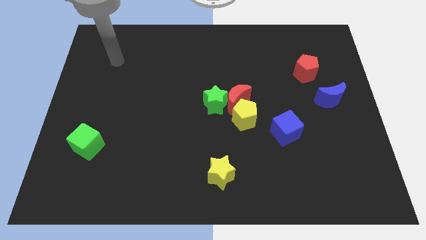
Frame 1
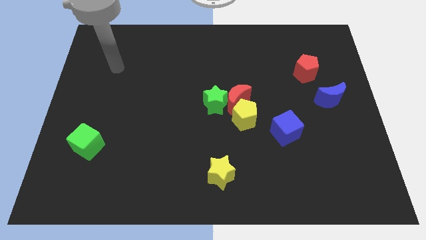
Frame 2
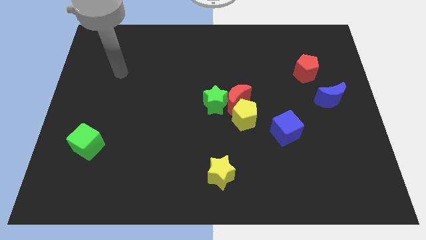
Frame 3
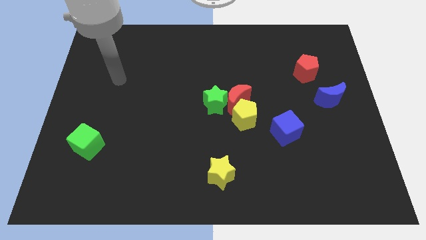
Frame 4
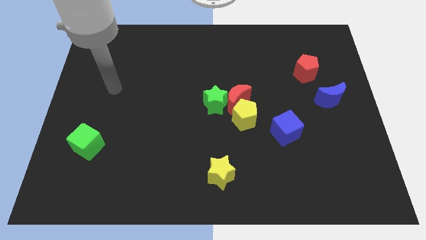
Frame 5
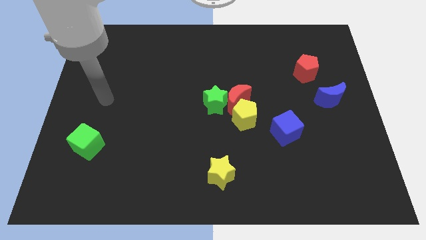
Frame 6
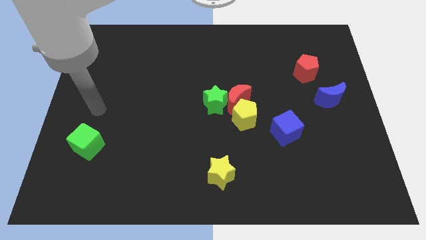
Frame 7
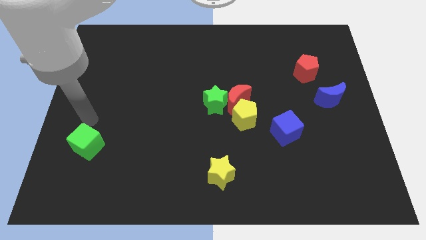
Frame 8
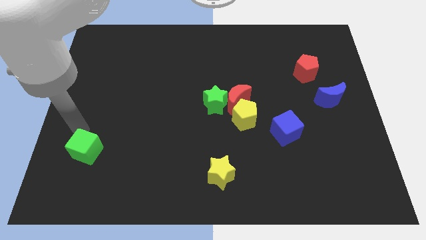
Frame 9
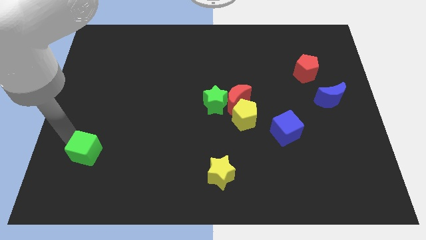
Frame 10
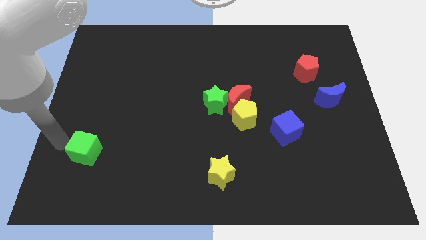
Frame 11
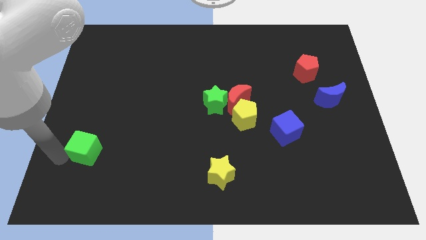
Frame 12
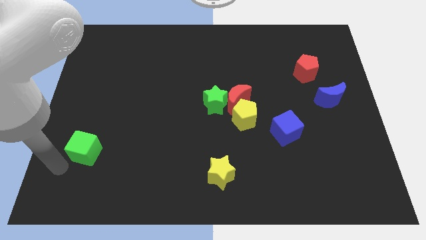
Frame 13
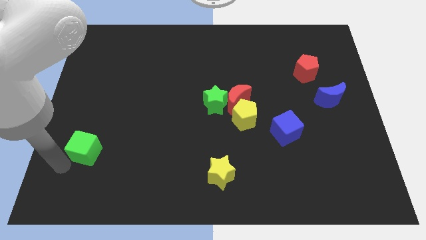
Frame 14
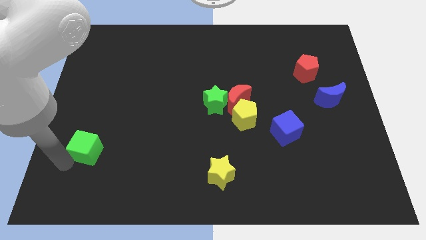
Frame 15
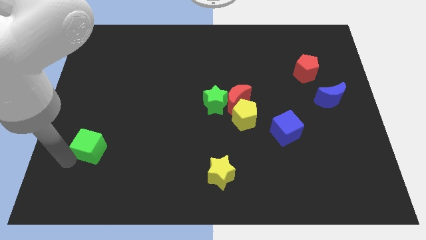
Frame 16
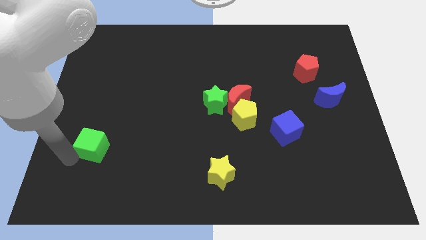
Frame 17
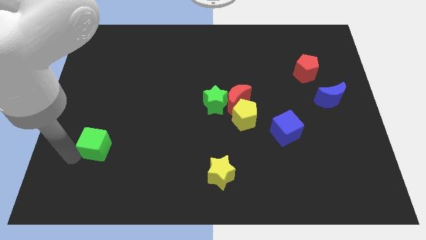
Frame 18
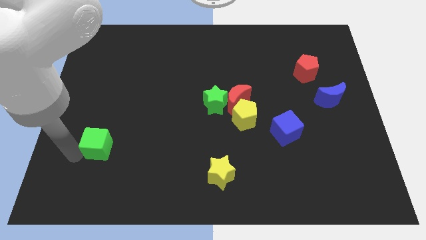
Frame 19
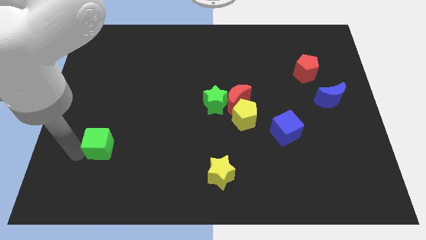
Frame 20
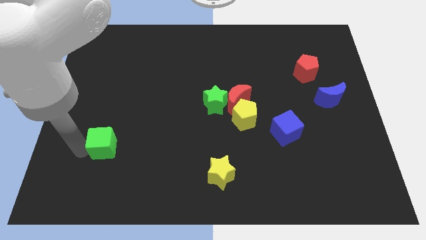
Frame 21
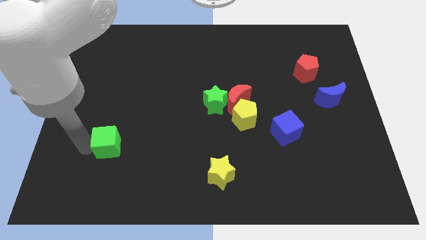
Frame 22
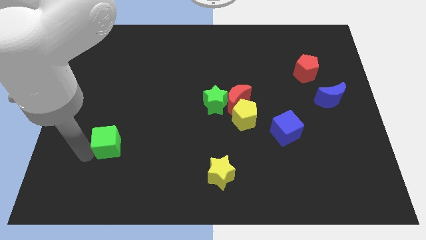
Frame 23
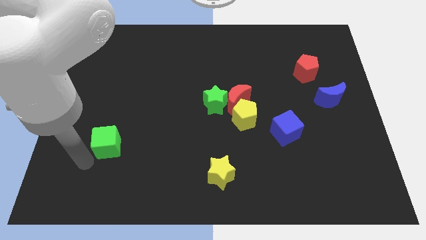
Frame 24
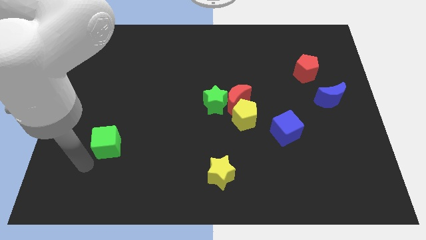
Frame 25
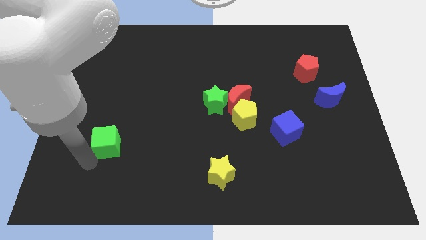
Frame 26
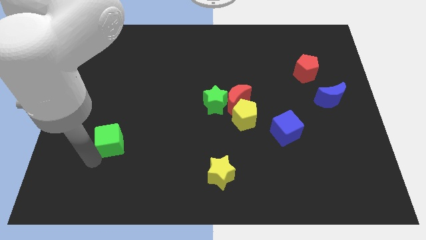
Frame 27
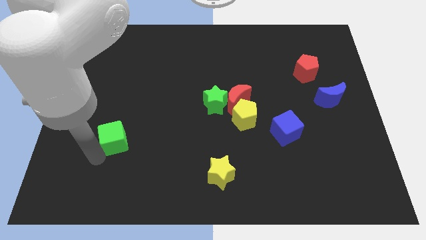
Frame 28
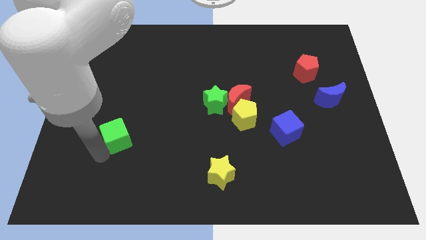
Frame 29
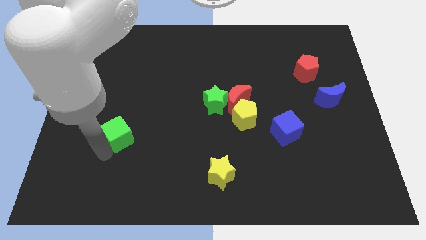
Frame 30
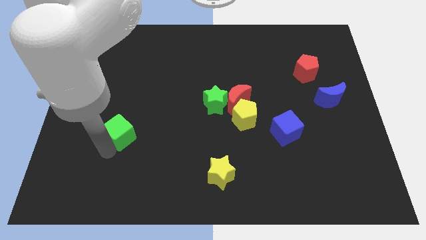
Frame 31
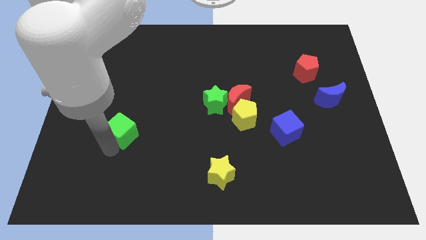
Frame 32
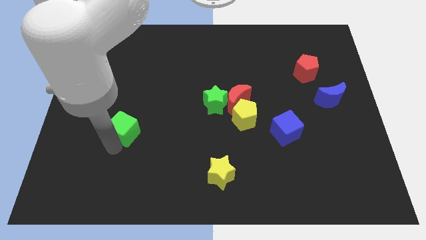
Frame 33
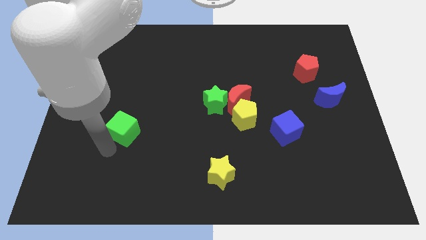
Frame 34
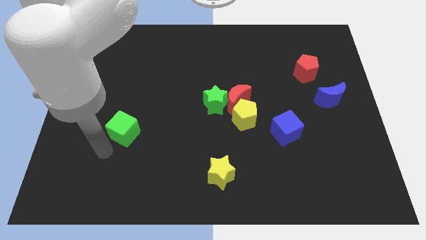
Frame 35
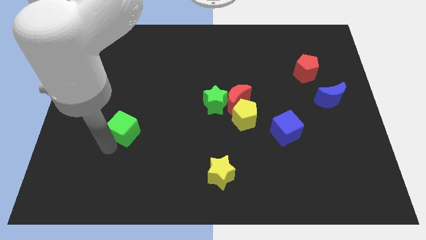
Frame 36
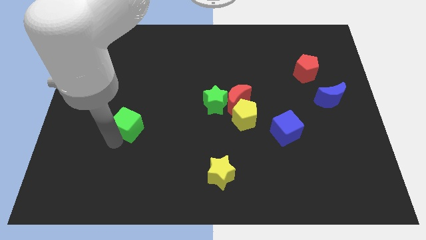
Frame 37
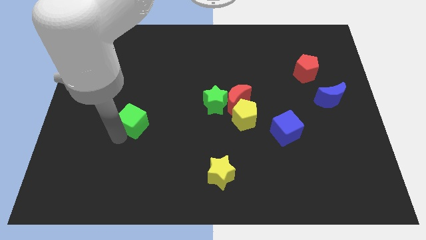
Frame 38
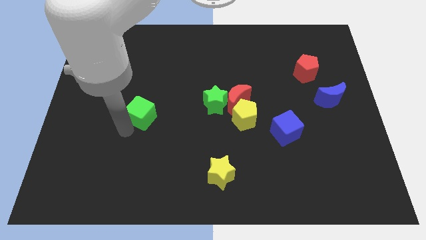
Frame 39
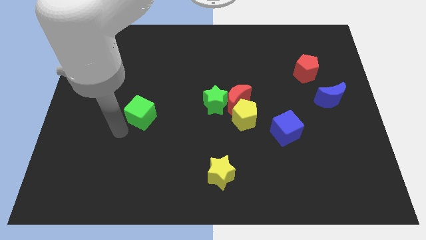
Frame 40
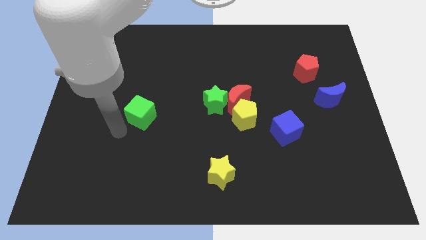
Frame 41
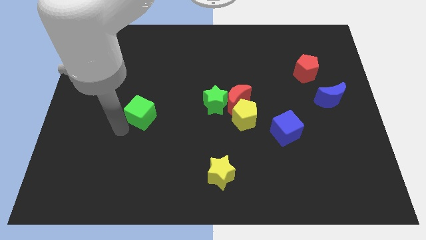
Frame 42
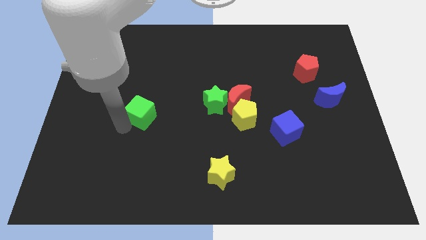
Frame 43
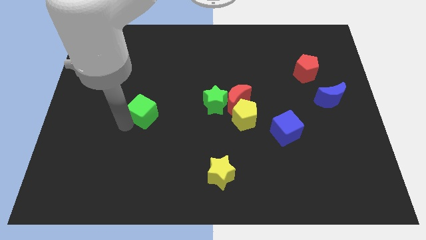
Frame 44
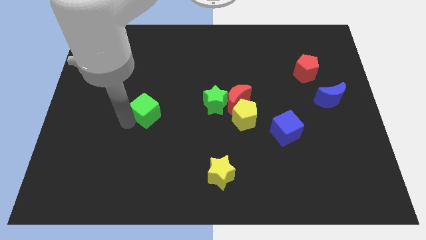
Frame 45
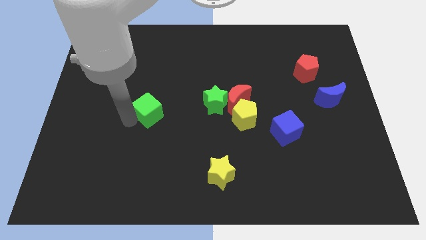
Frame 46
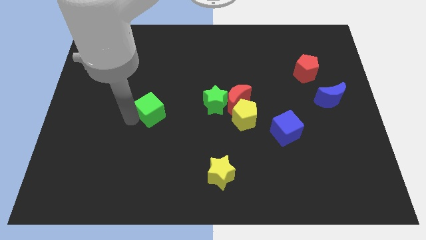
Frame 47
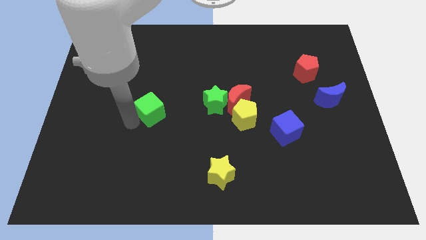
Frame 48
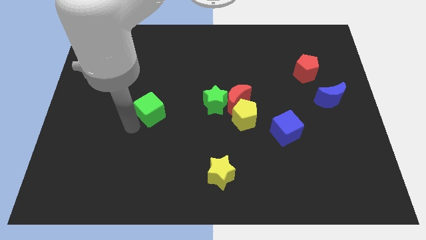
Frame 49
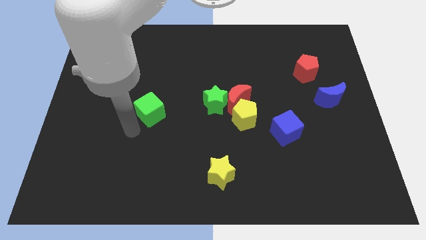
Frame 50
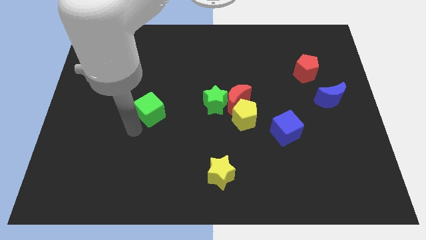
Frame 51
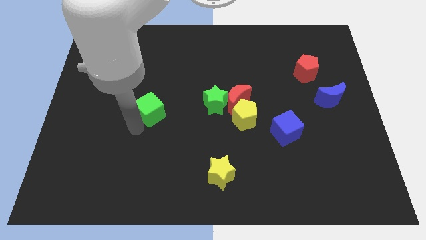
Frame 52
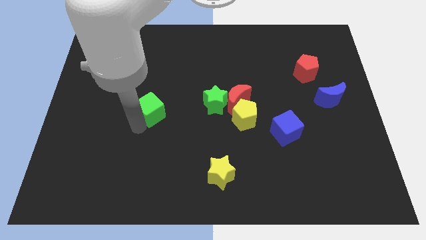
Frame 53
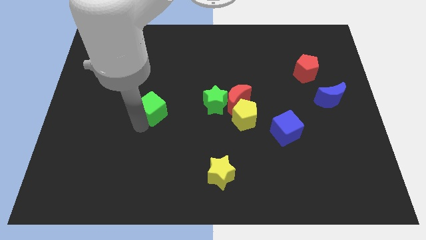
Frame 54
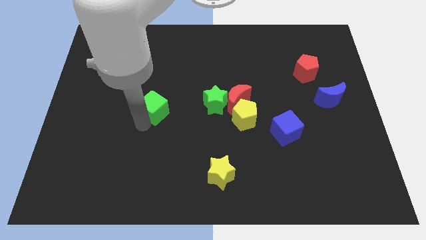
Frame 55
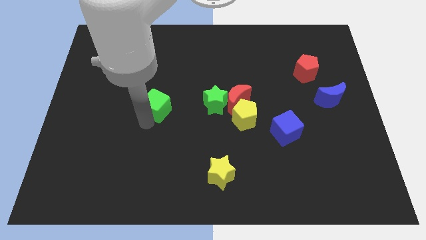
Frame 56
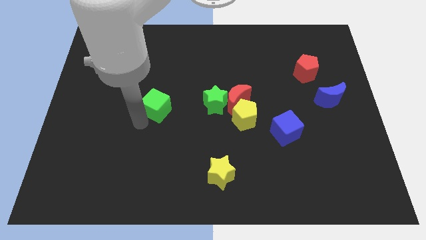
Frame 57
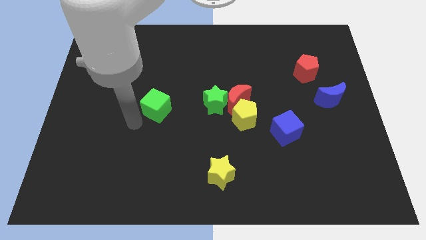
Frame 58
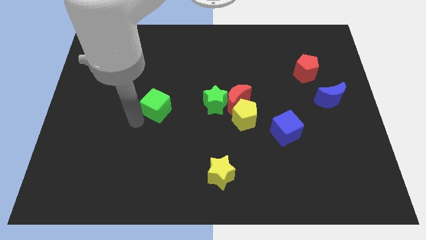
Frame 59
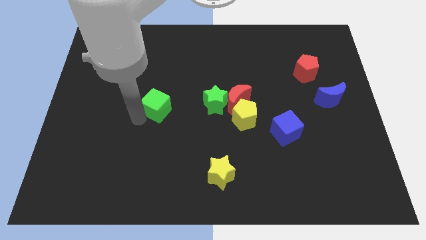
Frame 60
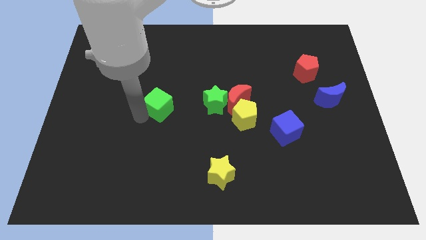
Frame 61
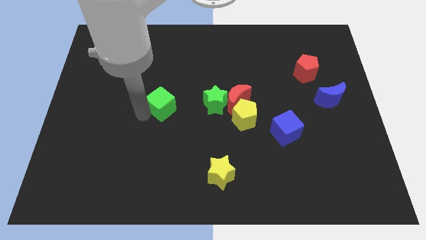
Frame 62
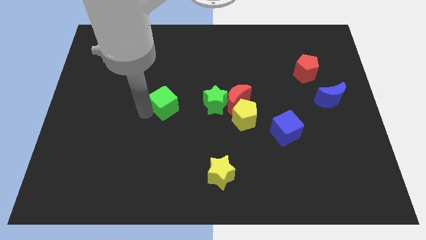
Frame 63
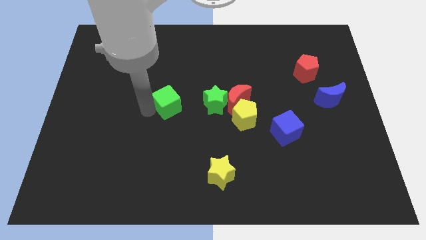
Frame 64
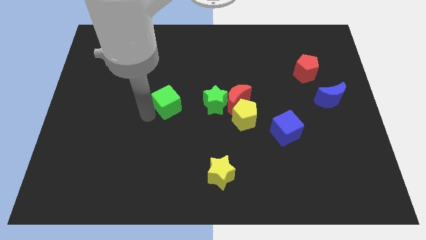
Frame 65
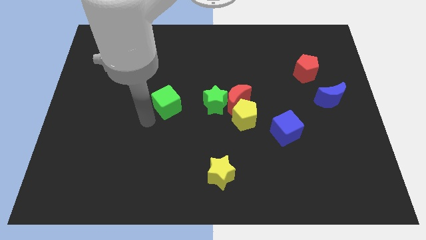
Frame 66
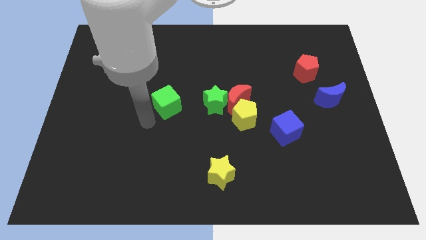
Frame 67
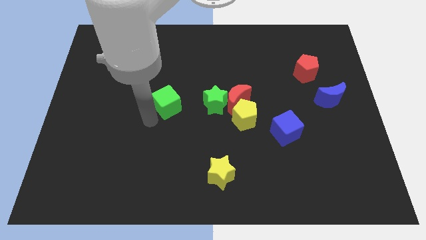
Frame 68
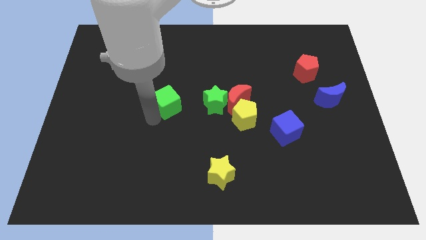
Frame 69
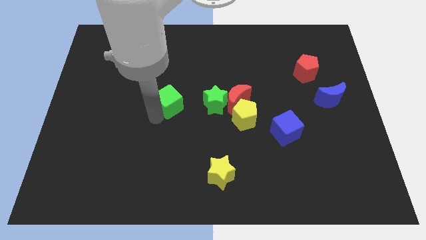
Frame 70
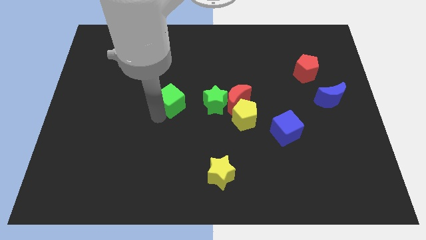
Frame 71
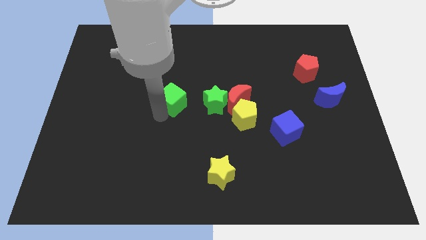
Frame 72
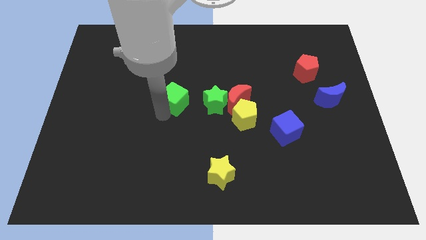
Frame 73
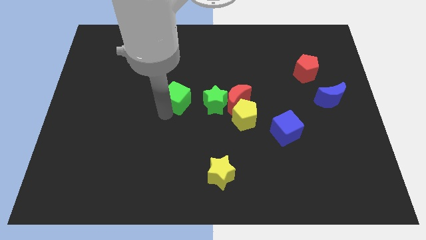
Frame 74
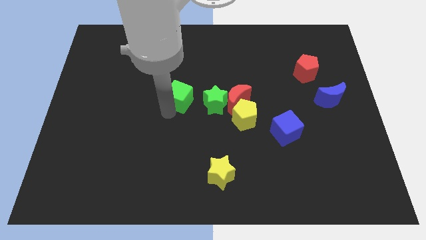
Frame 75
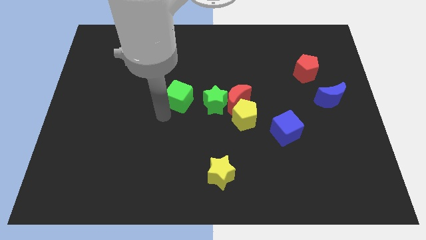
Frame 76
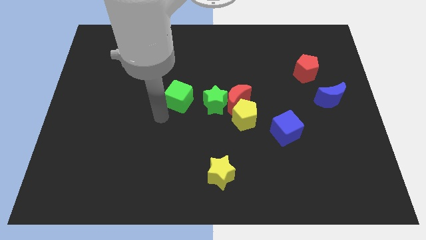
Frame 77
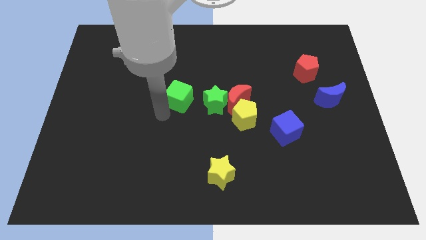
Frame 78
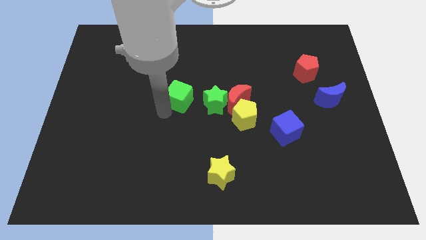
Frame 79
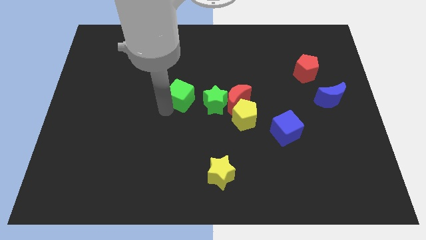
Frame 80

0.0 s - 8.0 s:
slide the green cube to the top left of the green star
